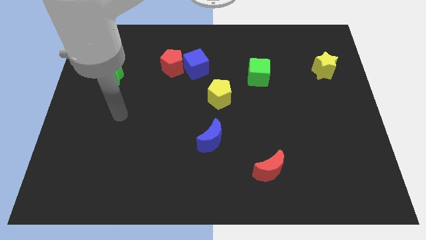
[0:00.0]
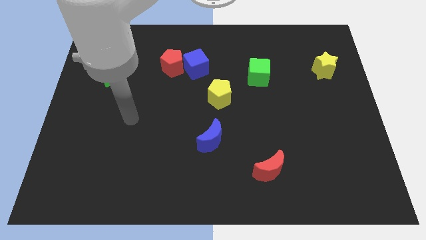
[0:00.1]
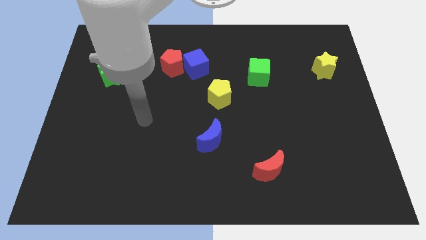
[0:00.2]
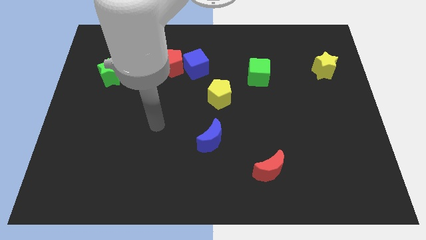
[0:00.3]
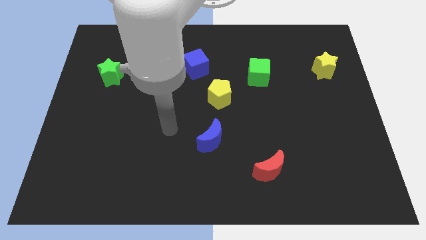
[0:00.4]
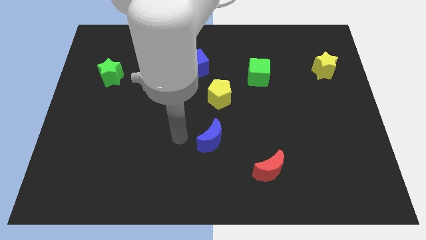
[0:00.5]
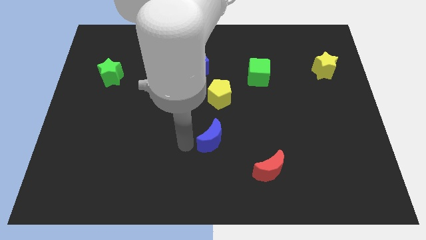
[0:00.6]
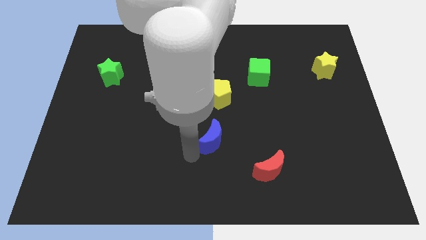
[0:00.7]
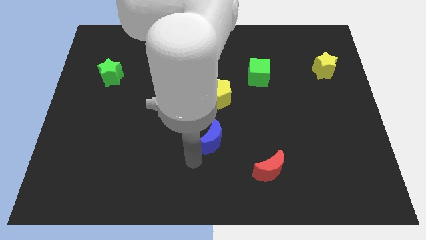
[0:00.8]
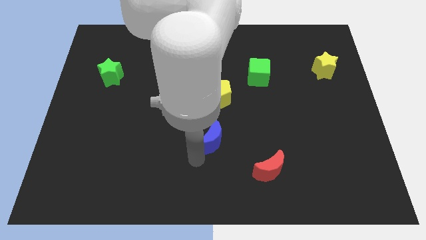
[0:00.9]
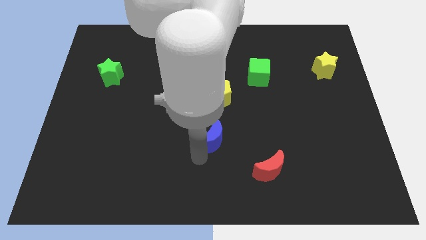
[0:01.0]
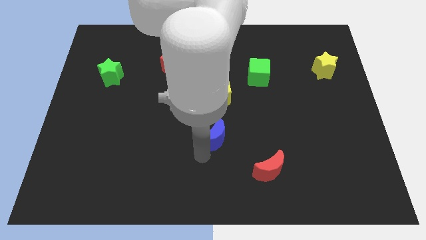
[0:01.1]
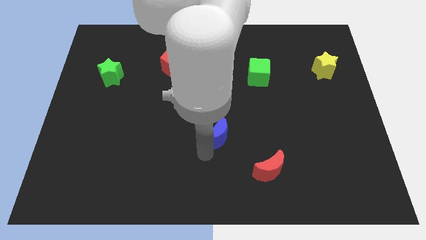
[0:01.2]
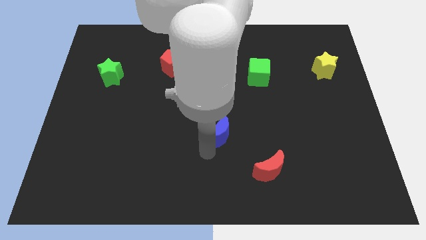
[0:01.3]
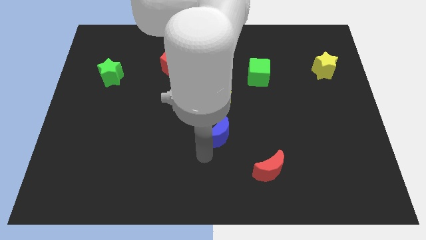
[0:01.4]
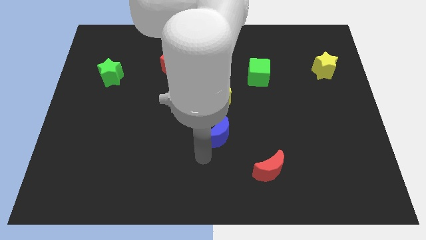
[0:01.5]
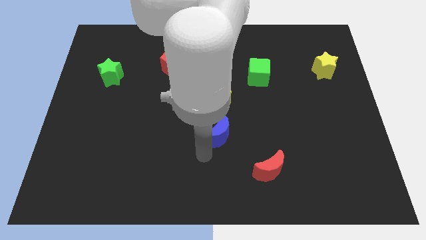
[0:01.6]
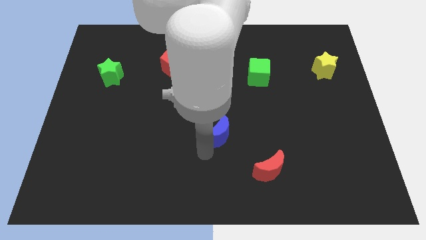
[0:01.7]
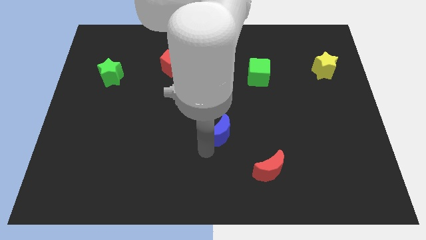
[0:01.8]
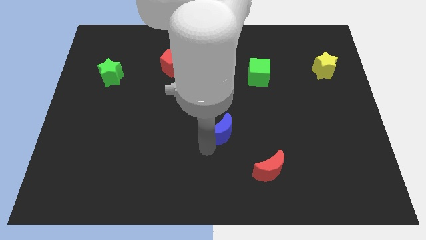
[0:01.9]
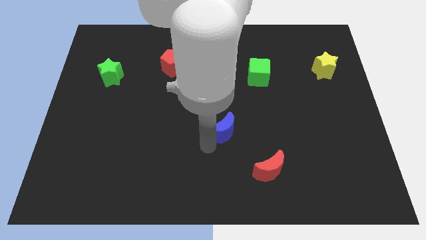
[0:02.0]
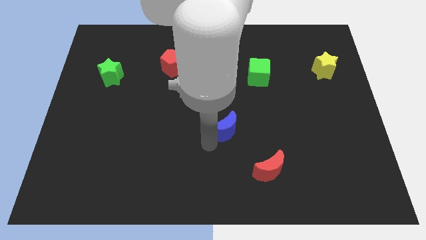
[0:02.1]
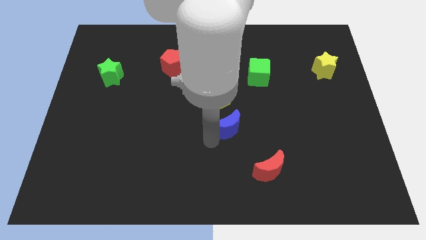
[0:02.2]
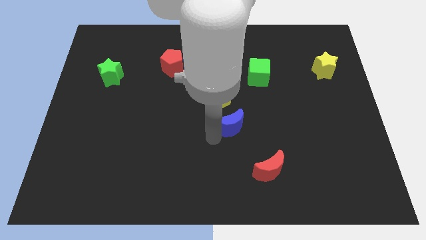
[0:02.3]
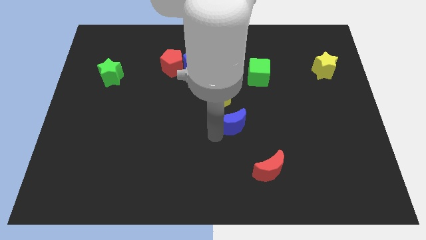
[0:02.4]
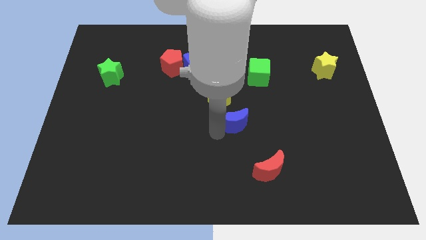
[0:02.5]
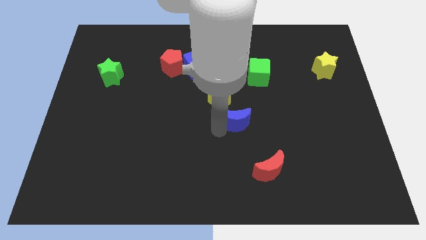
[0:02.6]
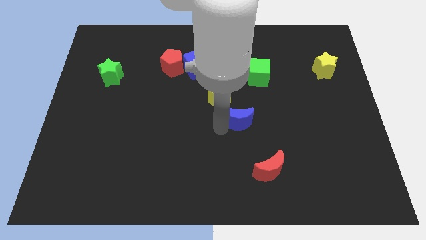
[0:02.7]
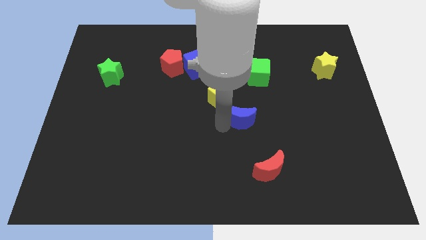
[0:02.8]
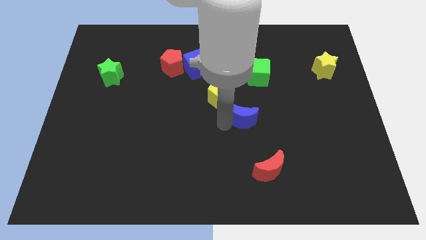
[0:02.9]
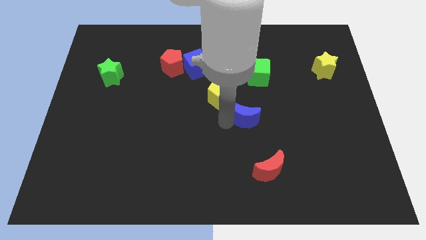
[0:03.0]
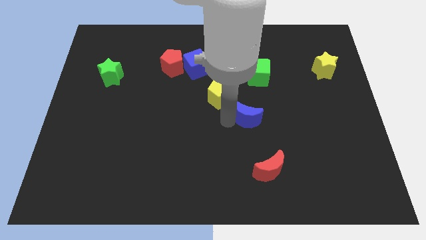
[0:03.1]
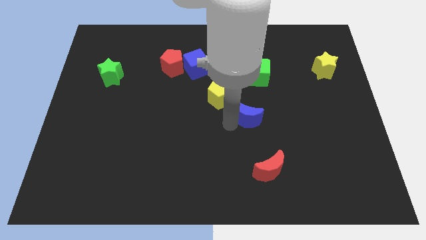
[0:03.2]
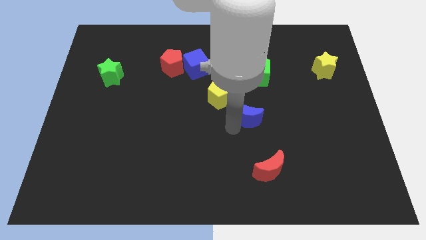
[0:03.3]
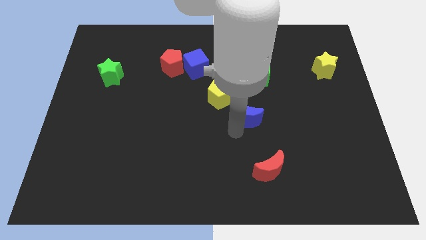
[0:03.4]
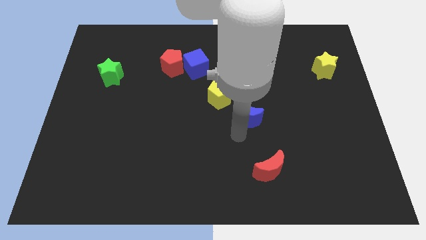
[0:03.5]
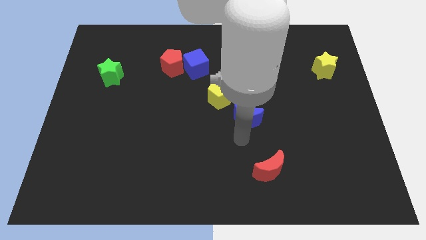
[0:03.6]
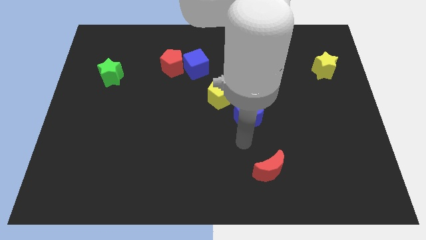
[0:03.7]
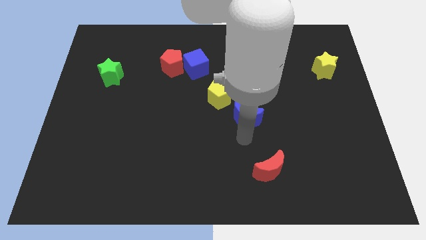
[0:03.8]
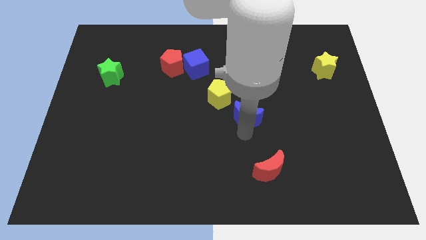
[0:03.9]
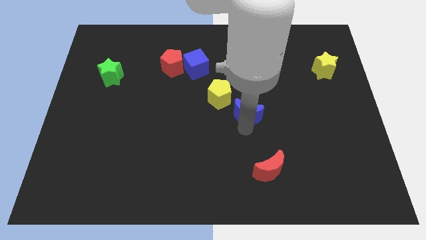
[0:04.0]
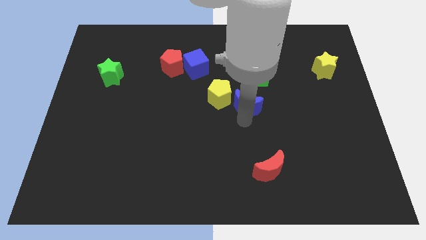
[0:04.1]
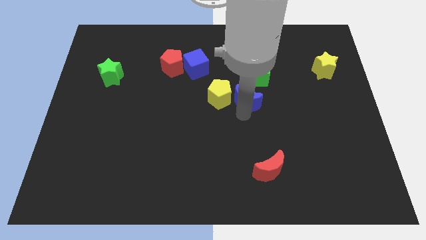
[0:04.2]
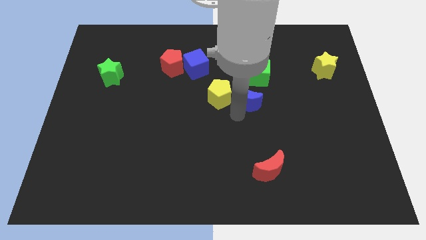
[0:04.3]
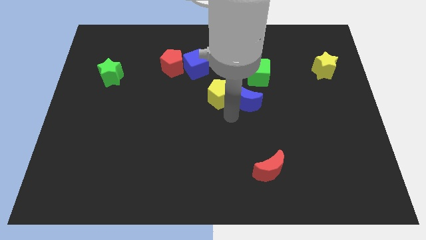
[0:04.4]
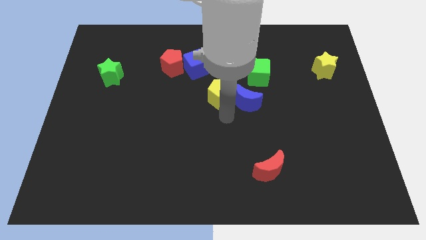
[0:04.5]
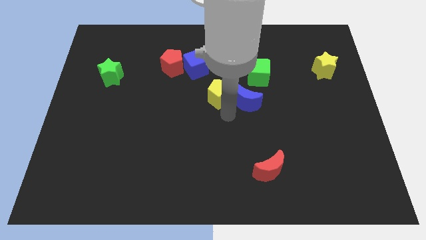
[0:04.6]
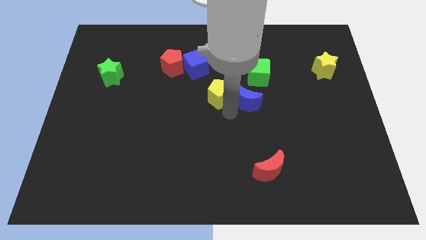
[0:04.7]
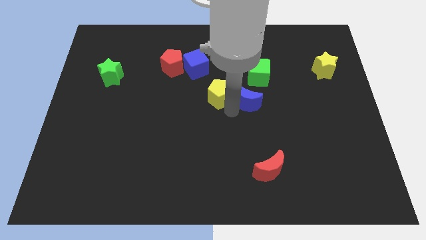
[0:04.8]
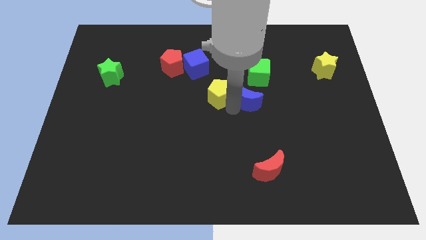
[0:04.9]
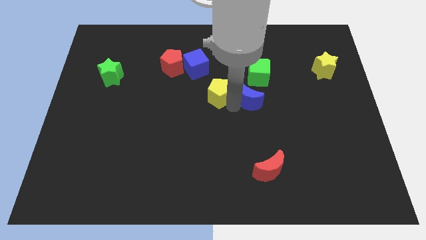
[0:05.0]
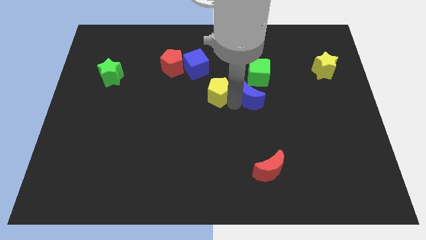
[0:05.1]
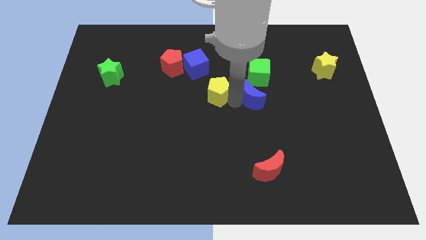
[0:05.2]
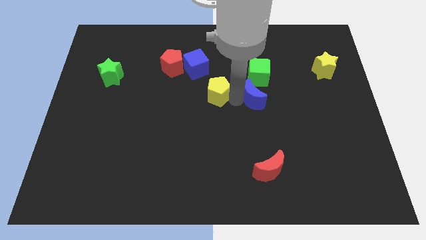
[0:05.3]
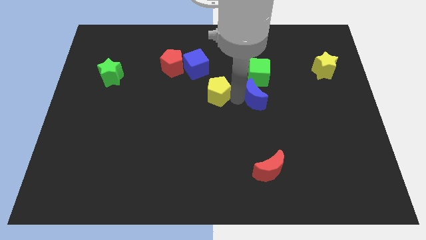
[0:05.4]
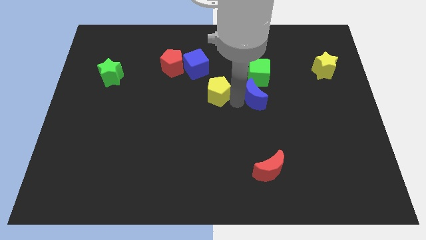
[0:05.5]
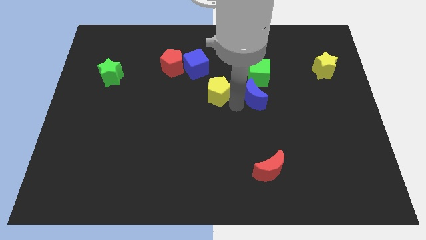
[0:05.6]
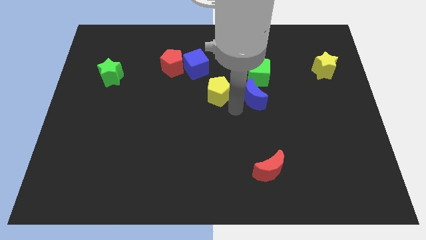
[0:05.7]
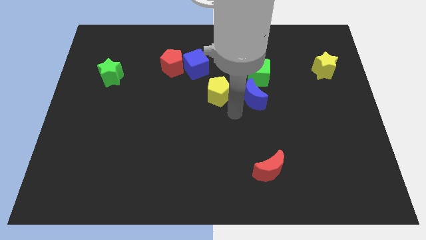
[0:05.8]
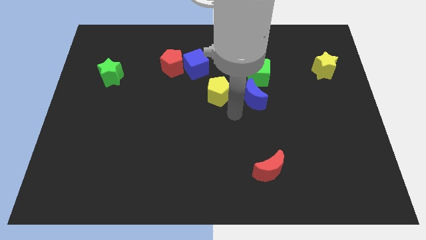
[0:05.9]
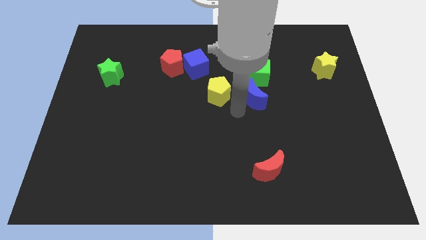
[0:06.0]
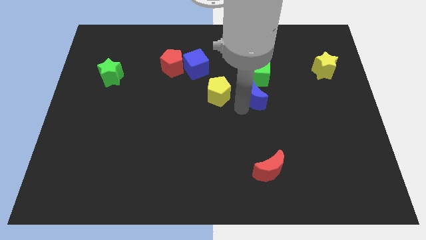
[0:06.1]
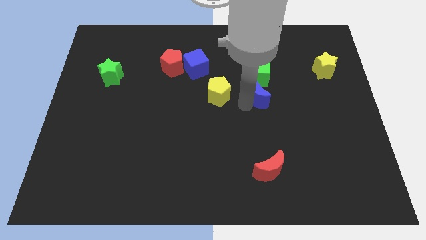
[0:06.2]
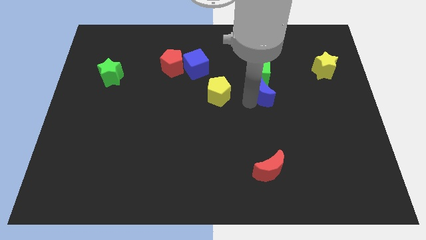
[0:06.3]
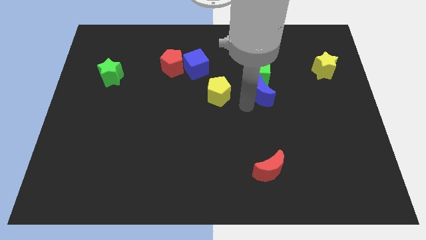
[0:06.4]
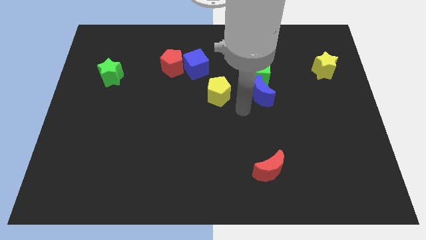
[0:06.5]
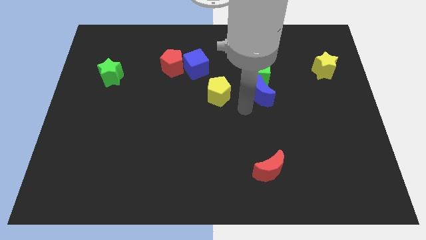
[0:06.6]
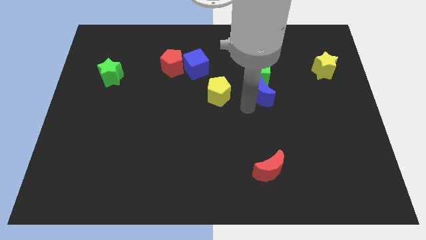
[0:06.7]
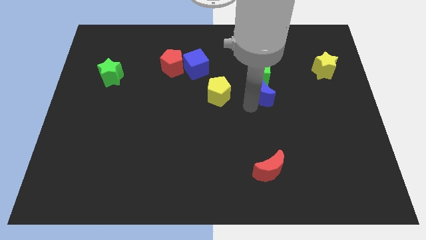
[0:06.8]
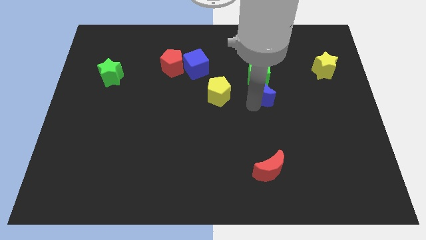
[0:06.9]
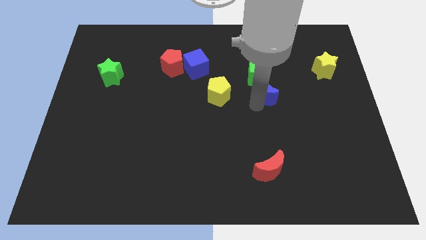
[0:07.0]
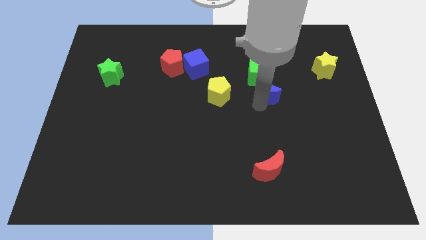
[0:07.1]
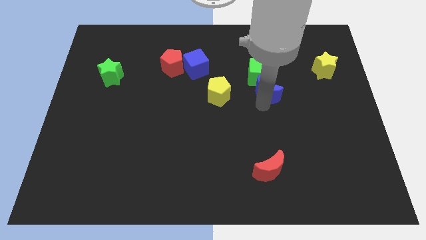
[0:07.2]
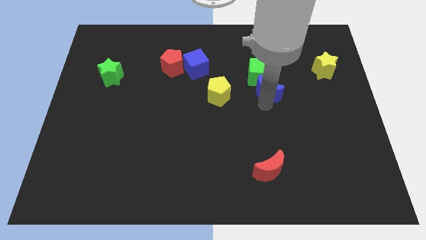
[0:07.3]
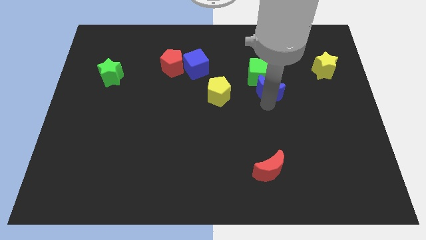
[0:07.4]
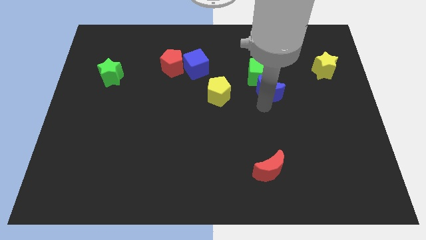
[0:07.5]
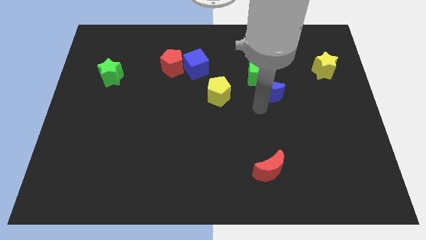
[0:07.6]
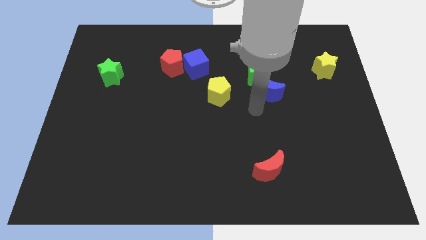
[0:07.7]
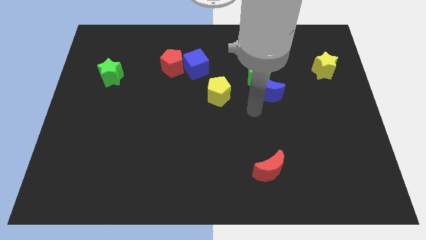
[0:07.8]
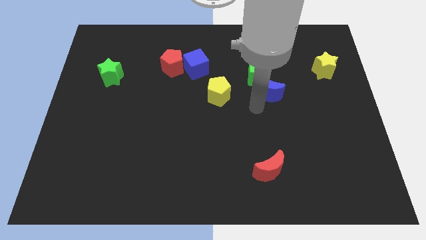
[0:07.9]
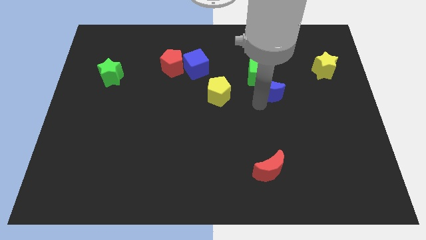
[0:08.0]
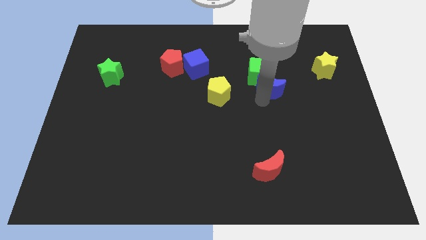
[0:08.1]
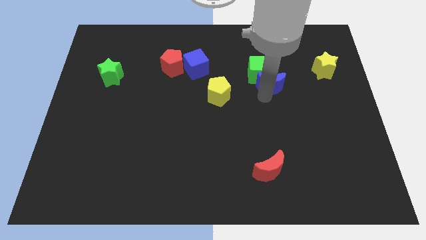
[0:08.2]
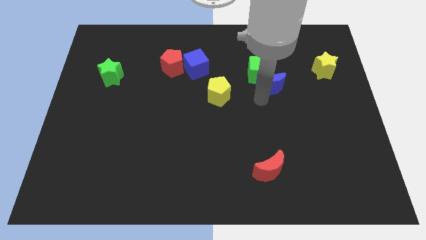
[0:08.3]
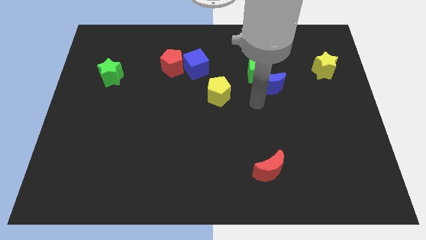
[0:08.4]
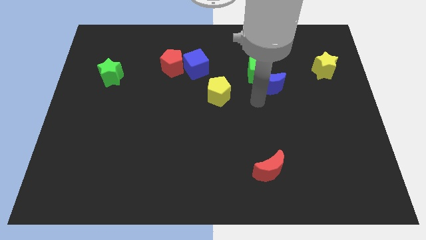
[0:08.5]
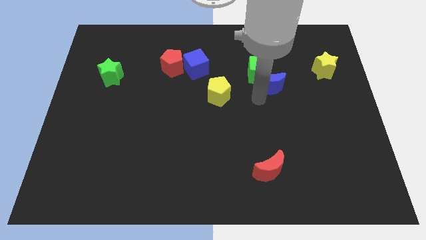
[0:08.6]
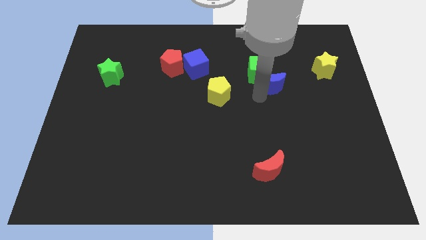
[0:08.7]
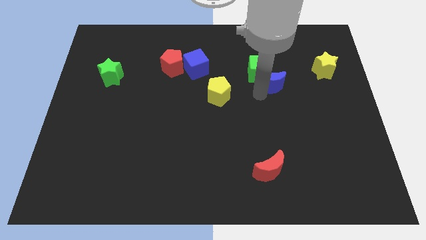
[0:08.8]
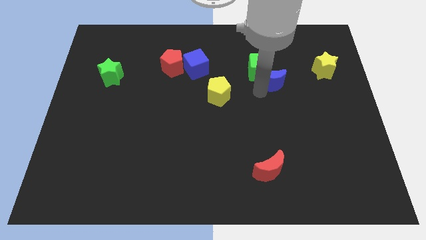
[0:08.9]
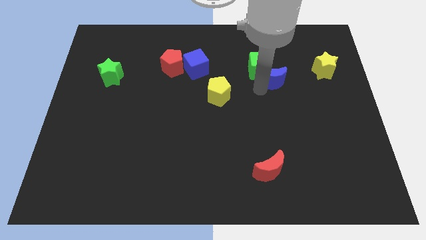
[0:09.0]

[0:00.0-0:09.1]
move the blue moon left of the yellow star
